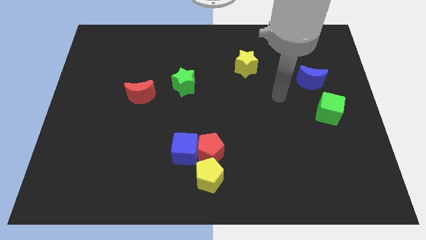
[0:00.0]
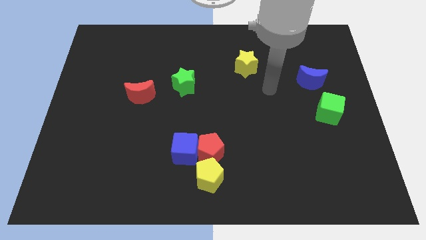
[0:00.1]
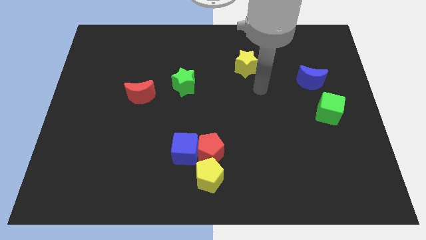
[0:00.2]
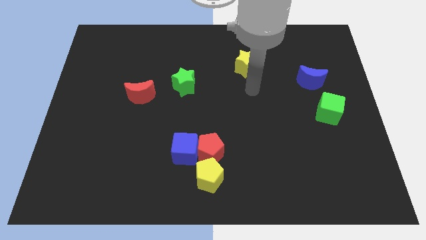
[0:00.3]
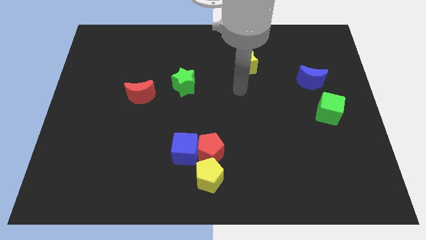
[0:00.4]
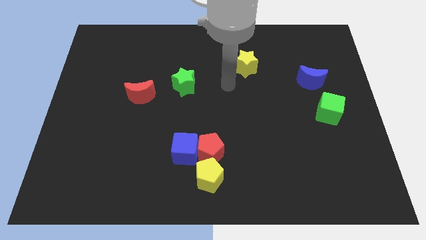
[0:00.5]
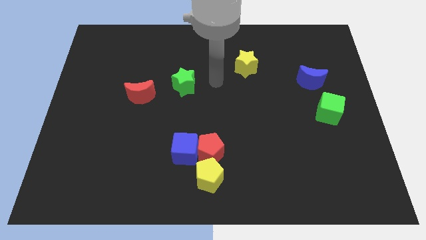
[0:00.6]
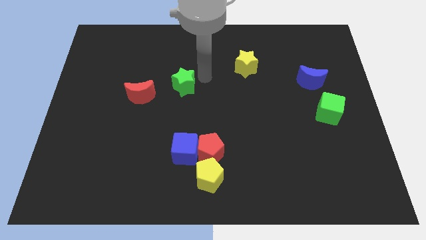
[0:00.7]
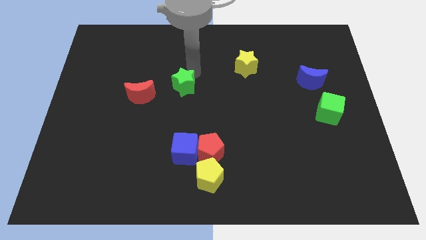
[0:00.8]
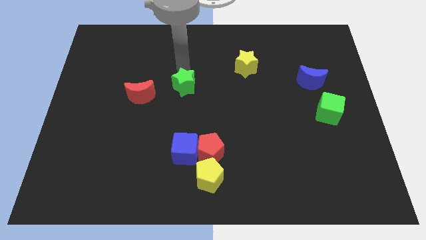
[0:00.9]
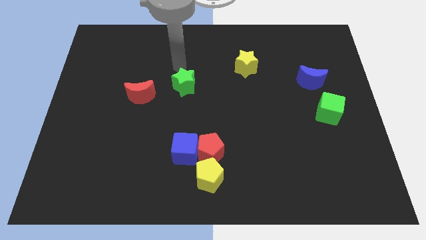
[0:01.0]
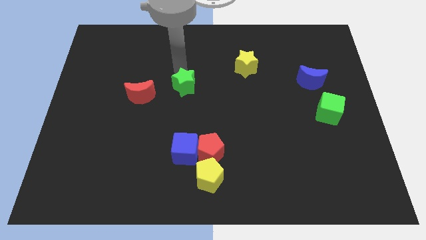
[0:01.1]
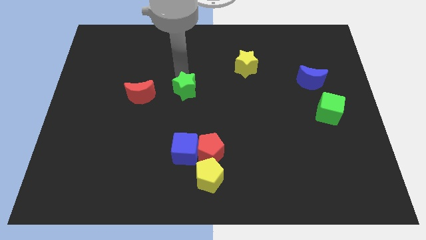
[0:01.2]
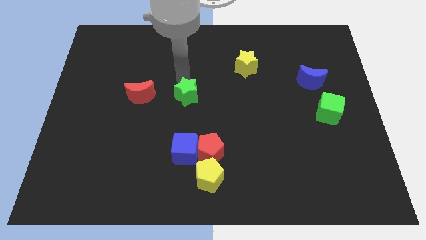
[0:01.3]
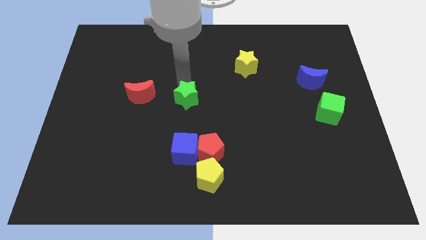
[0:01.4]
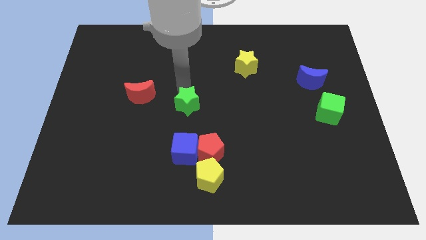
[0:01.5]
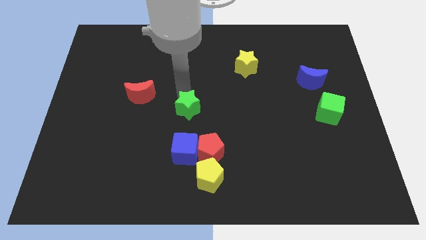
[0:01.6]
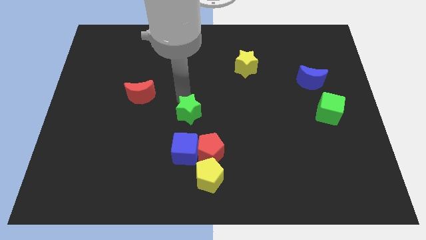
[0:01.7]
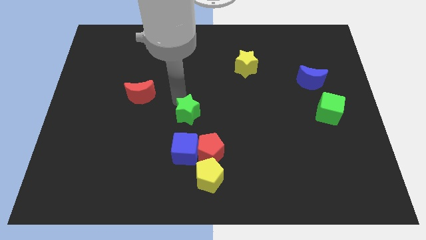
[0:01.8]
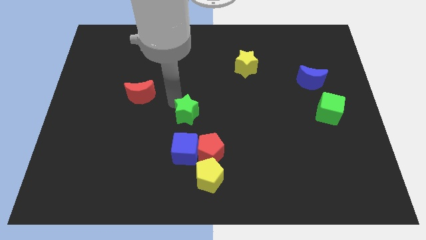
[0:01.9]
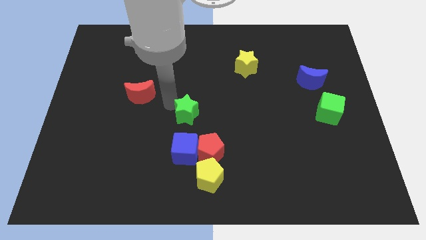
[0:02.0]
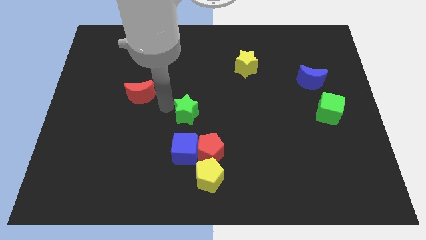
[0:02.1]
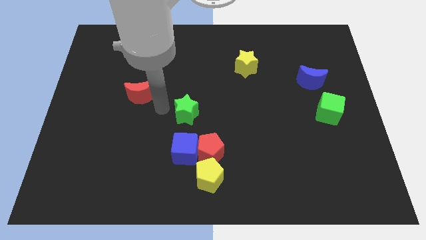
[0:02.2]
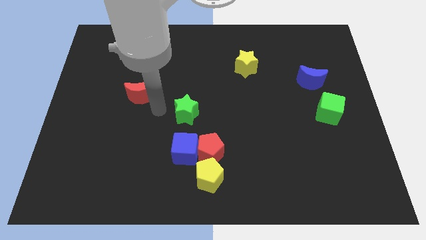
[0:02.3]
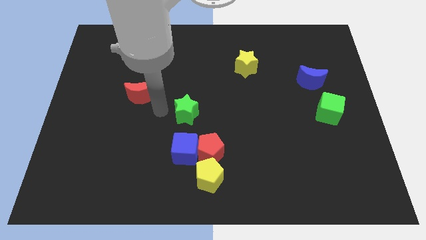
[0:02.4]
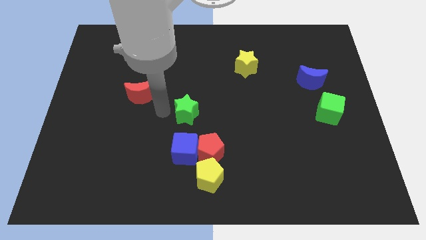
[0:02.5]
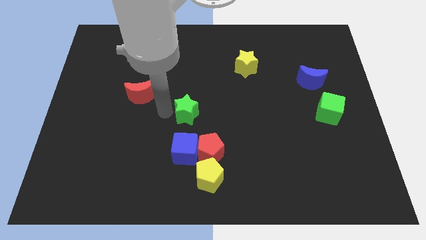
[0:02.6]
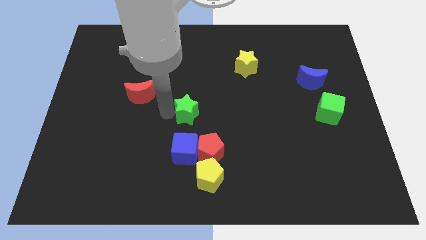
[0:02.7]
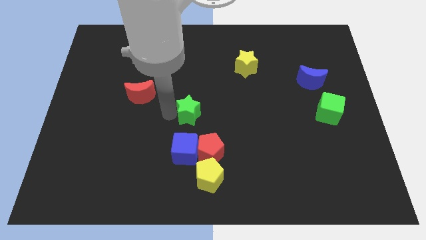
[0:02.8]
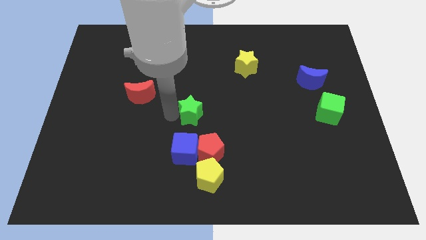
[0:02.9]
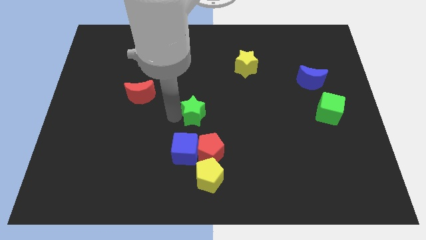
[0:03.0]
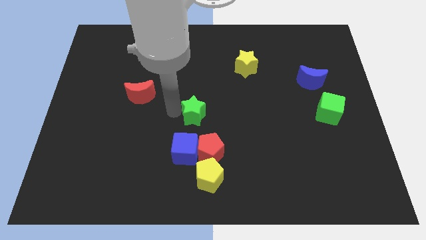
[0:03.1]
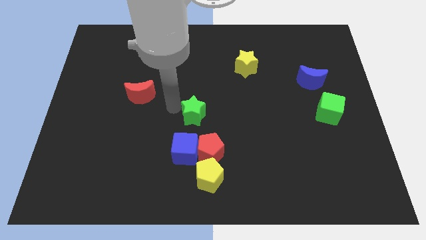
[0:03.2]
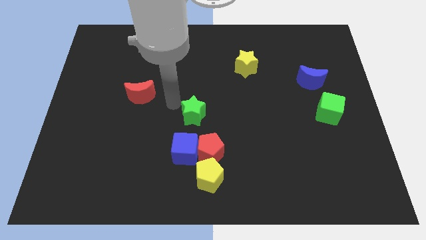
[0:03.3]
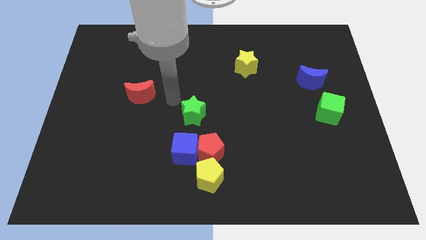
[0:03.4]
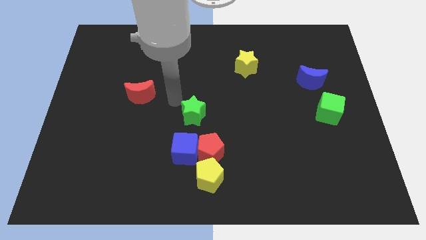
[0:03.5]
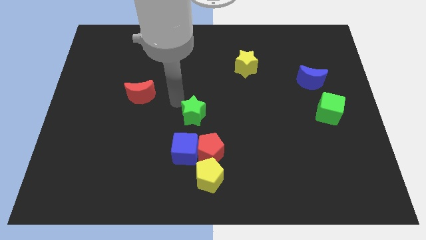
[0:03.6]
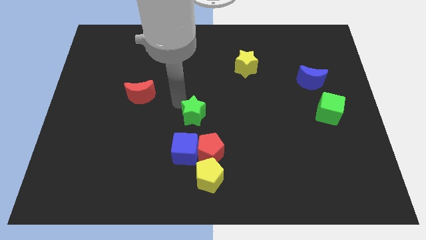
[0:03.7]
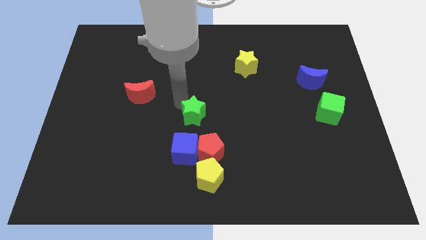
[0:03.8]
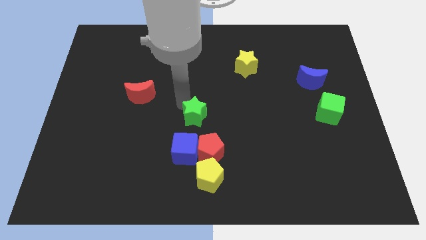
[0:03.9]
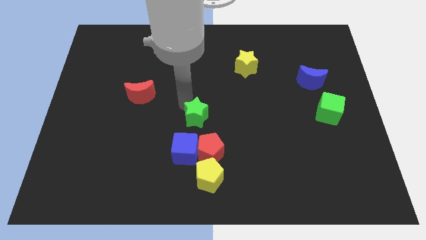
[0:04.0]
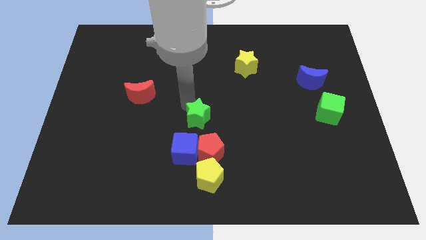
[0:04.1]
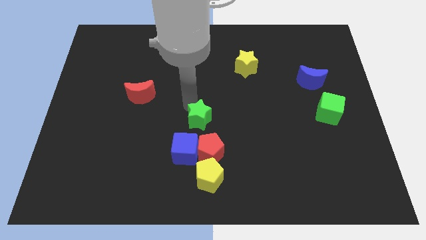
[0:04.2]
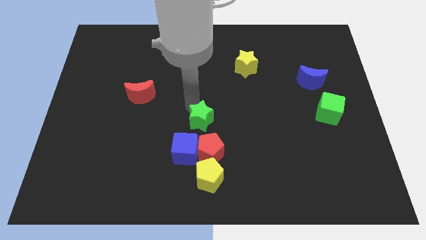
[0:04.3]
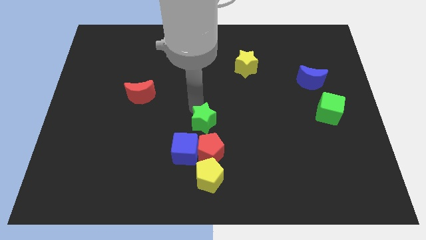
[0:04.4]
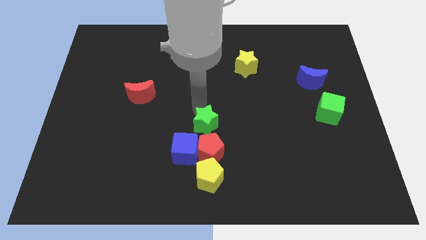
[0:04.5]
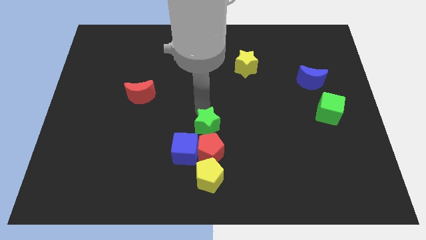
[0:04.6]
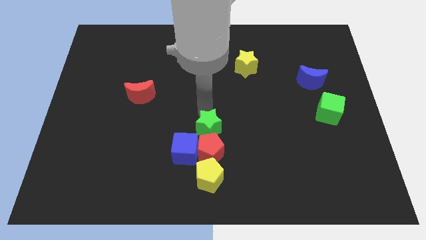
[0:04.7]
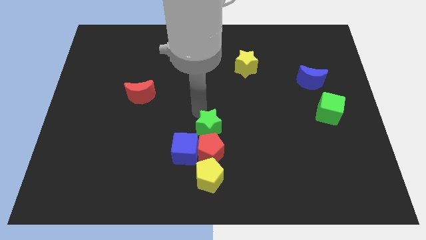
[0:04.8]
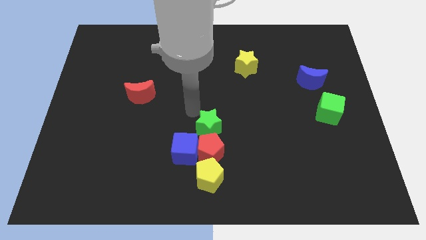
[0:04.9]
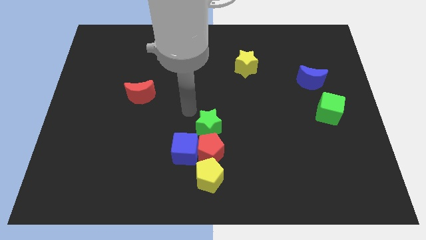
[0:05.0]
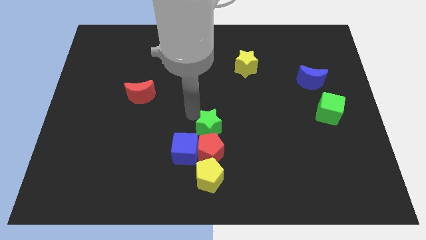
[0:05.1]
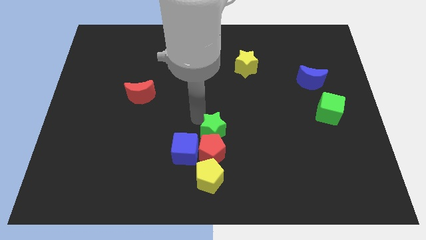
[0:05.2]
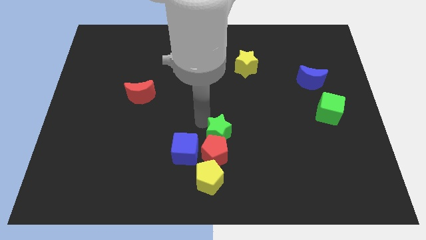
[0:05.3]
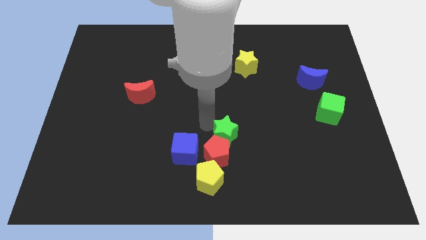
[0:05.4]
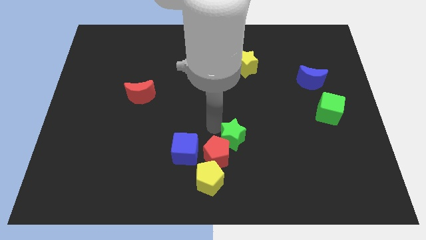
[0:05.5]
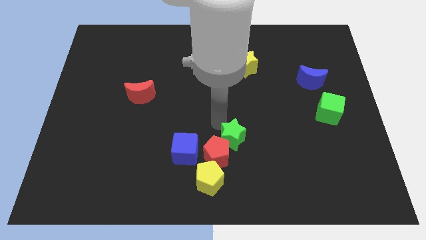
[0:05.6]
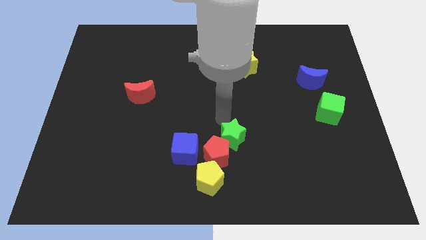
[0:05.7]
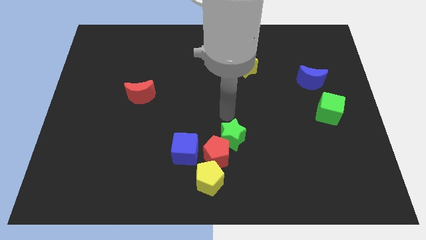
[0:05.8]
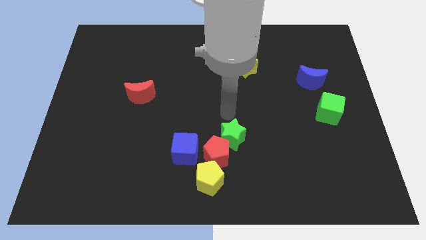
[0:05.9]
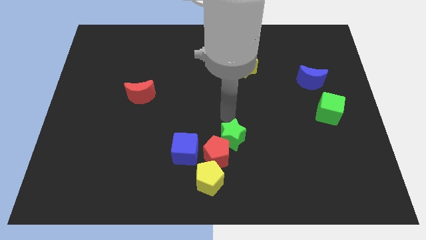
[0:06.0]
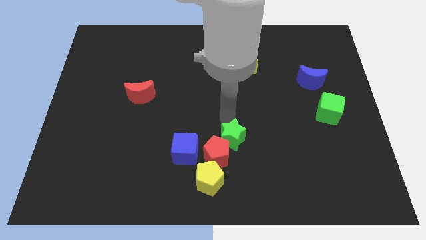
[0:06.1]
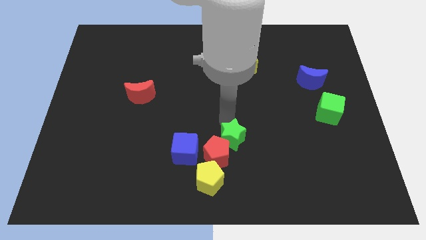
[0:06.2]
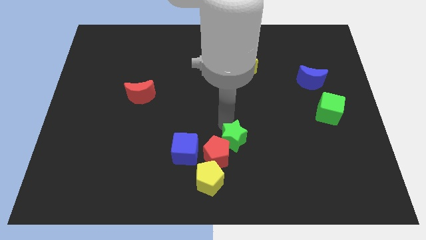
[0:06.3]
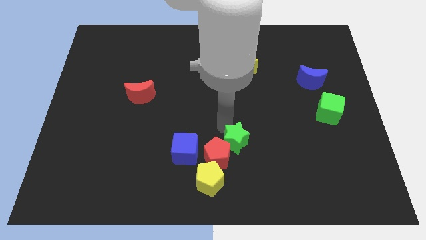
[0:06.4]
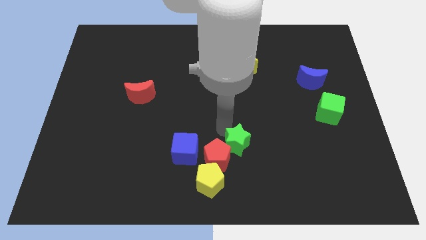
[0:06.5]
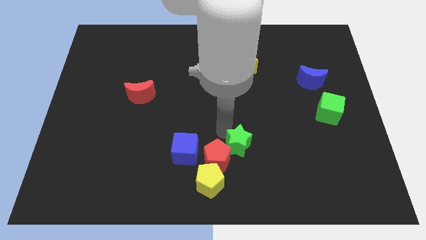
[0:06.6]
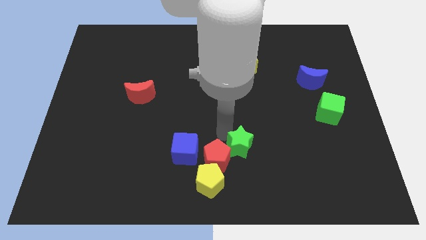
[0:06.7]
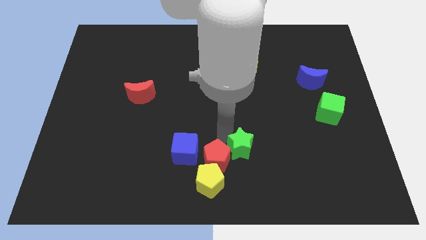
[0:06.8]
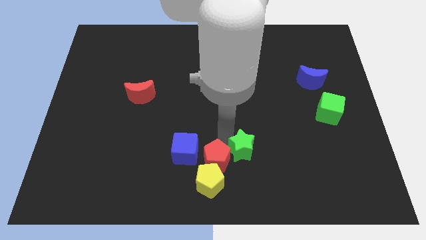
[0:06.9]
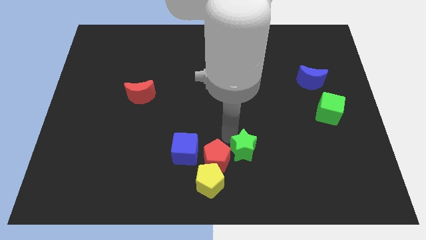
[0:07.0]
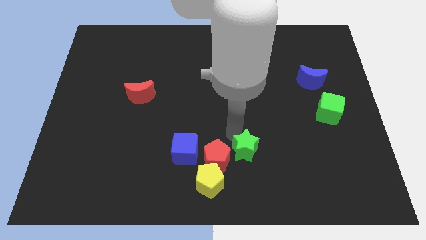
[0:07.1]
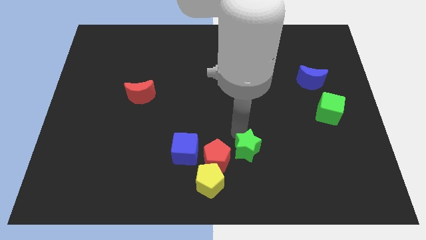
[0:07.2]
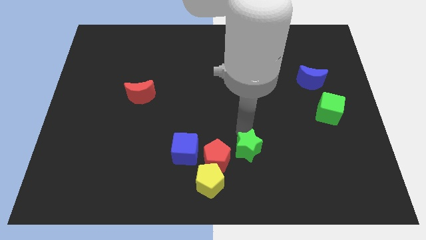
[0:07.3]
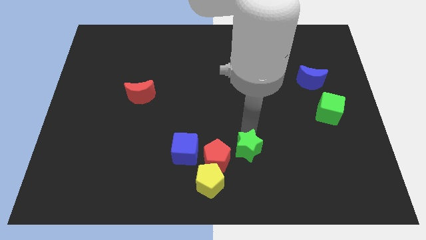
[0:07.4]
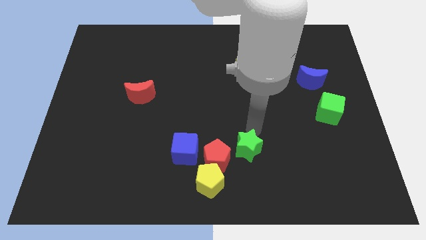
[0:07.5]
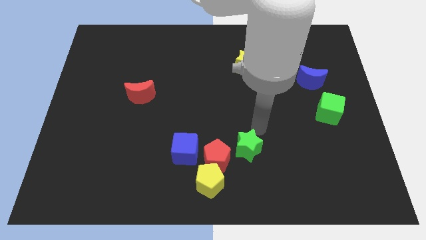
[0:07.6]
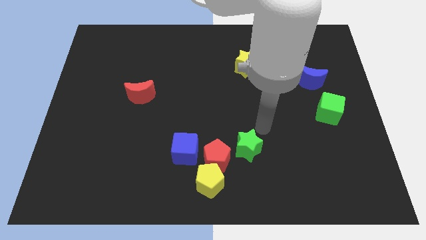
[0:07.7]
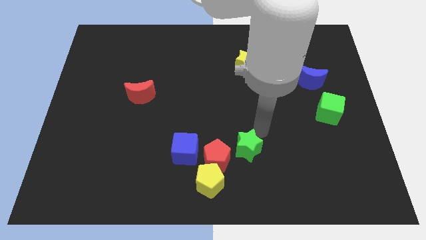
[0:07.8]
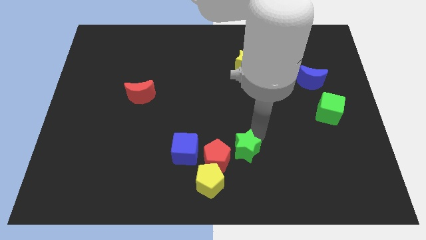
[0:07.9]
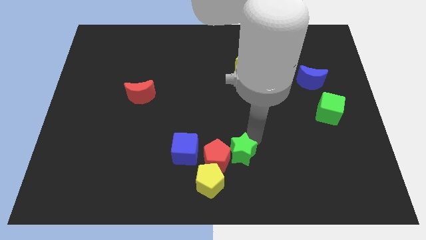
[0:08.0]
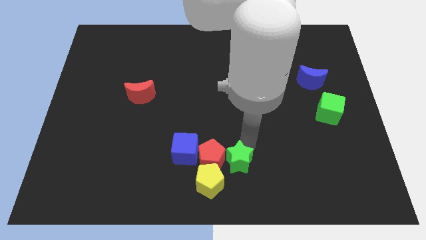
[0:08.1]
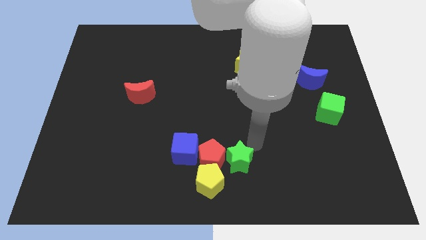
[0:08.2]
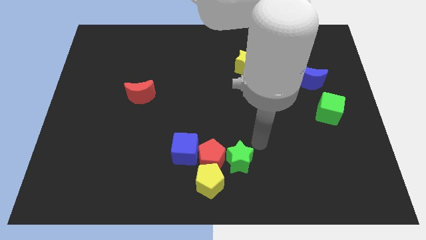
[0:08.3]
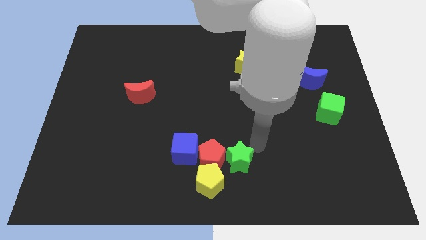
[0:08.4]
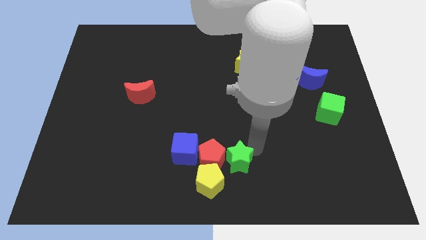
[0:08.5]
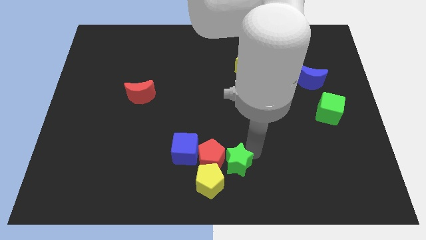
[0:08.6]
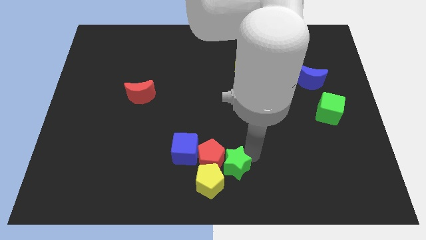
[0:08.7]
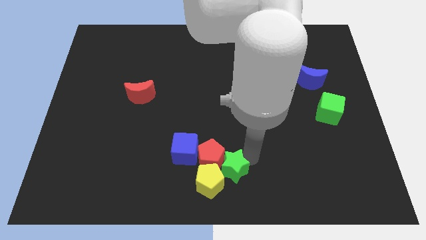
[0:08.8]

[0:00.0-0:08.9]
move the green star to the yellow pentagon
